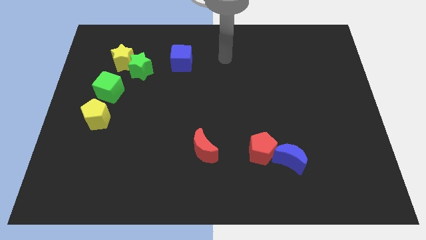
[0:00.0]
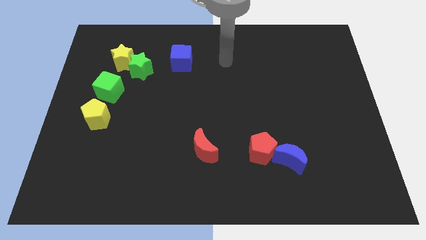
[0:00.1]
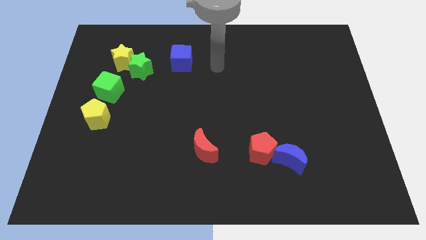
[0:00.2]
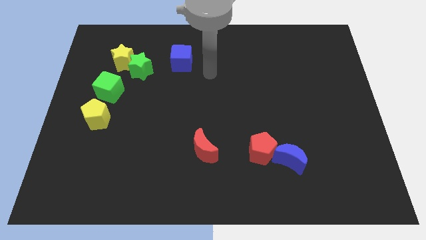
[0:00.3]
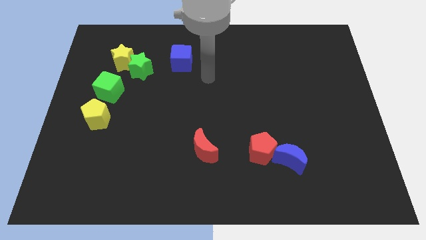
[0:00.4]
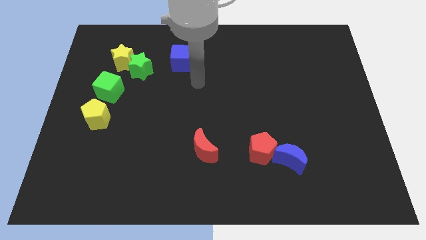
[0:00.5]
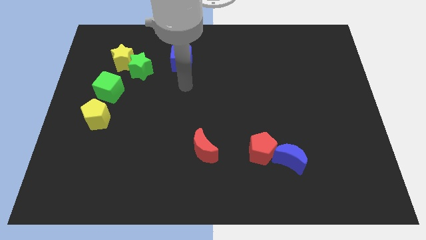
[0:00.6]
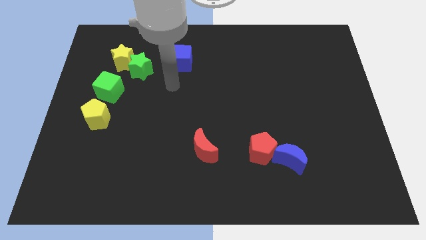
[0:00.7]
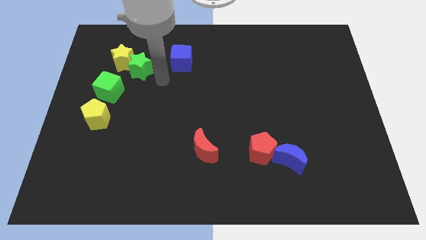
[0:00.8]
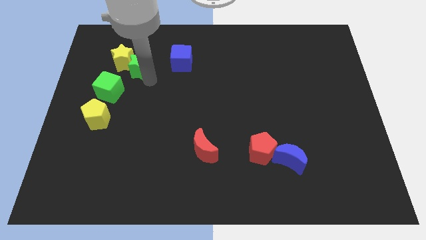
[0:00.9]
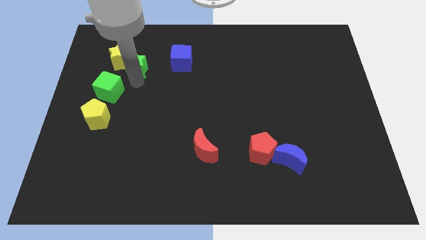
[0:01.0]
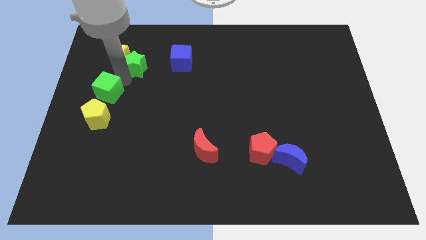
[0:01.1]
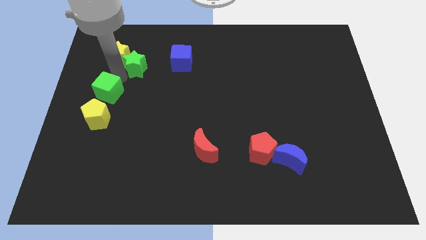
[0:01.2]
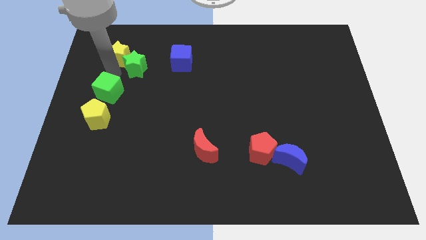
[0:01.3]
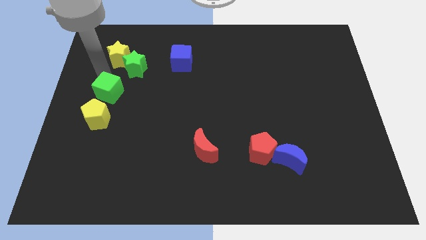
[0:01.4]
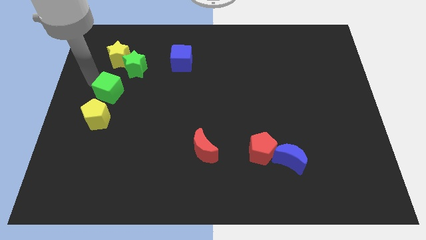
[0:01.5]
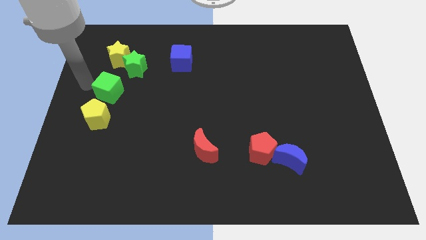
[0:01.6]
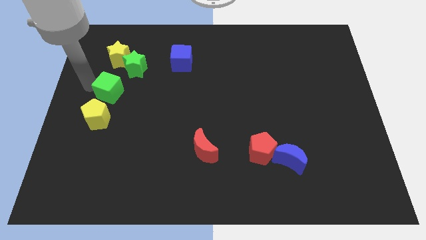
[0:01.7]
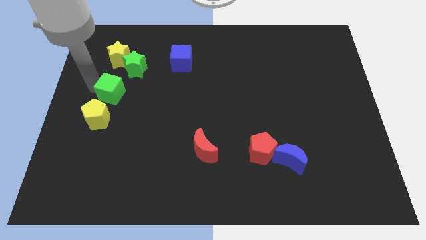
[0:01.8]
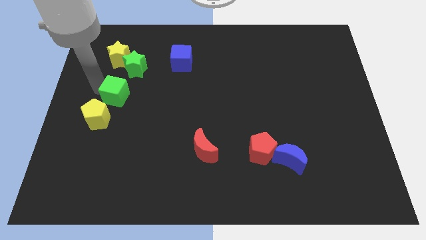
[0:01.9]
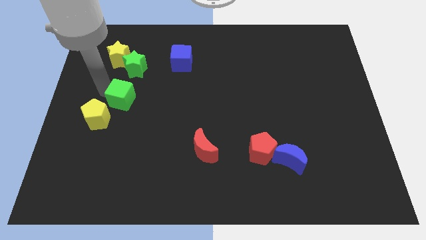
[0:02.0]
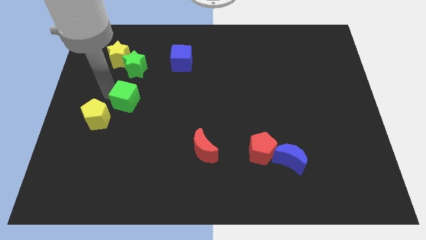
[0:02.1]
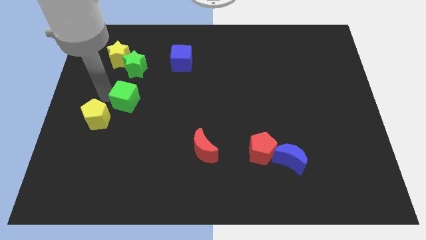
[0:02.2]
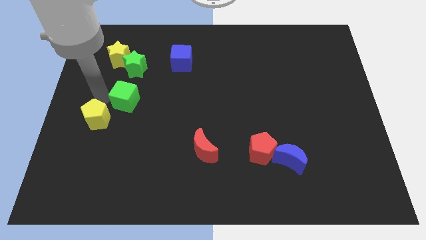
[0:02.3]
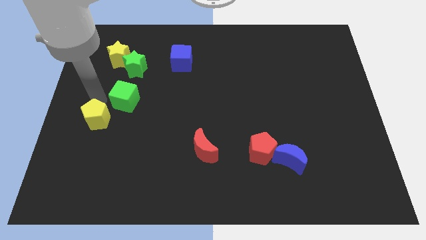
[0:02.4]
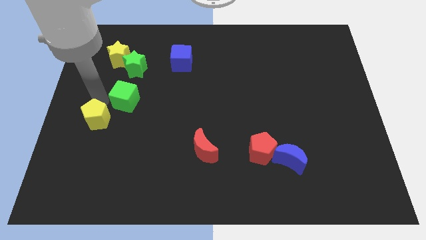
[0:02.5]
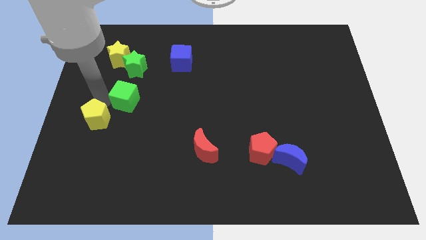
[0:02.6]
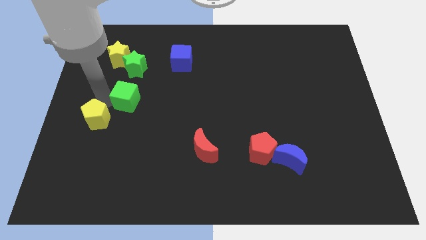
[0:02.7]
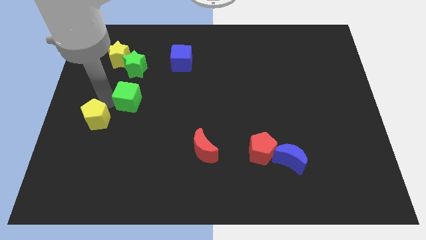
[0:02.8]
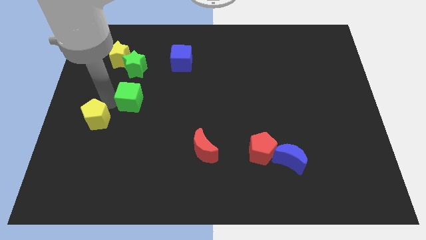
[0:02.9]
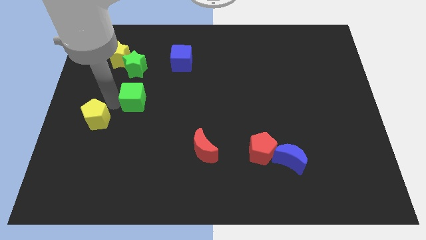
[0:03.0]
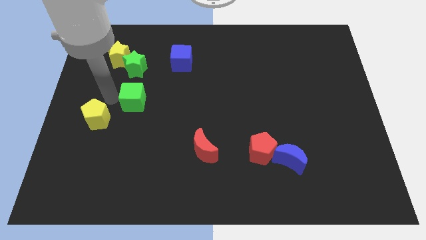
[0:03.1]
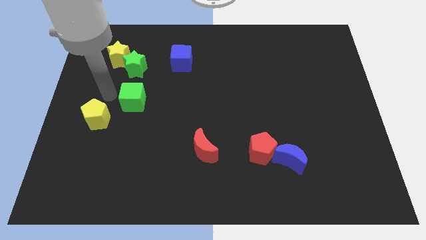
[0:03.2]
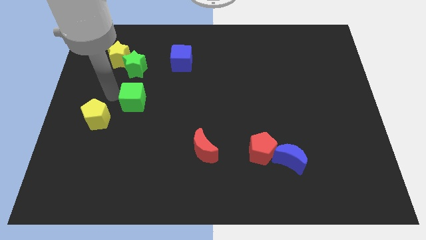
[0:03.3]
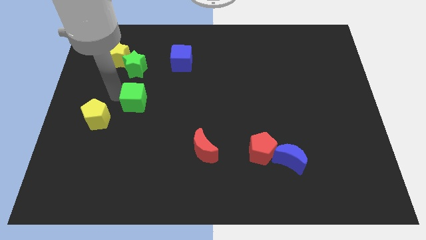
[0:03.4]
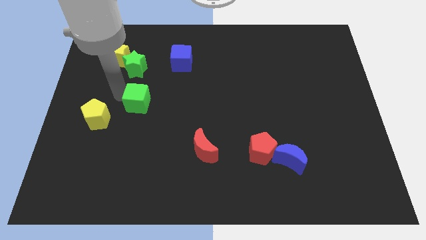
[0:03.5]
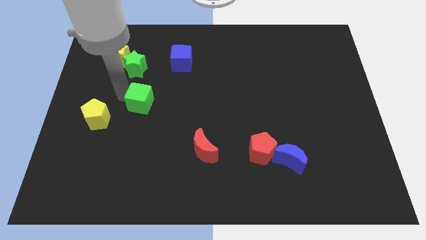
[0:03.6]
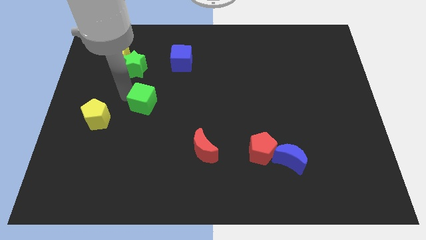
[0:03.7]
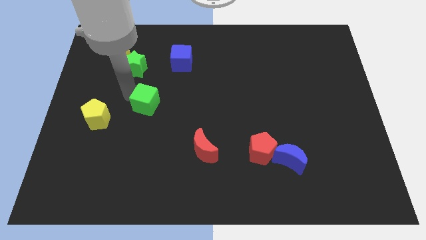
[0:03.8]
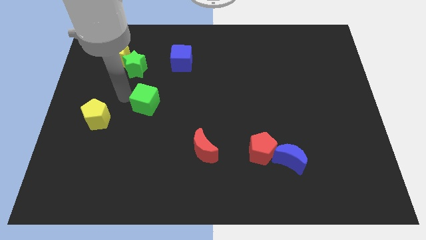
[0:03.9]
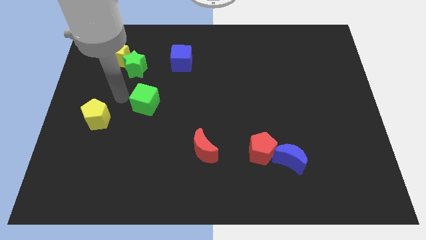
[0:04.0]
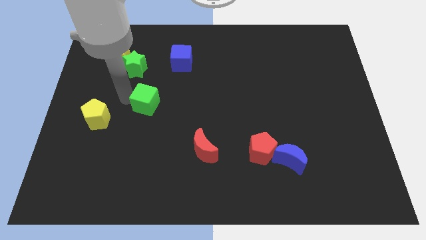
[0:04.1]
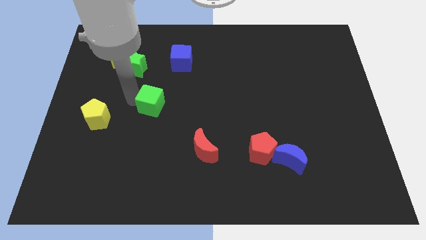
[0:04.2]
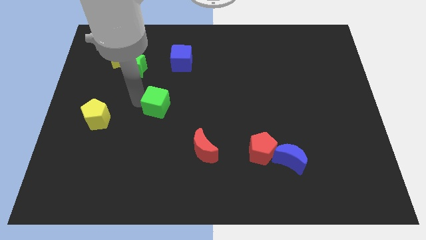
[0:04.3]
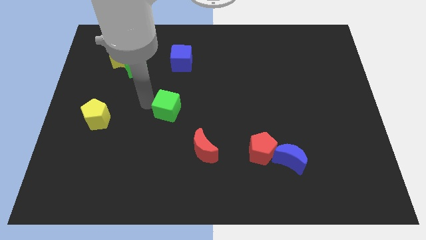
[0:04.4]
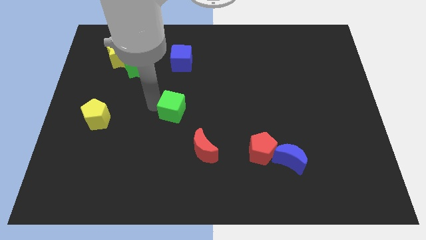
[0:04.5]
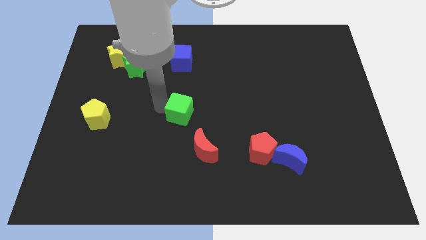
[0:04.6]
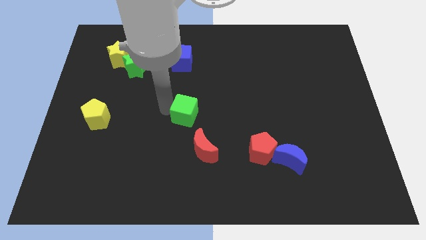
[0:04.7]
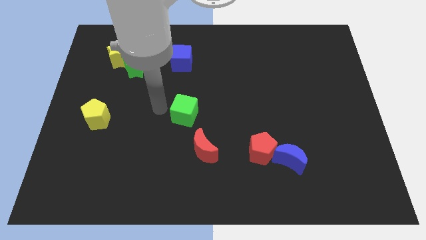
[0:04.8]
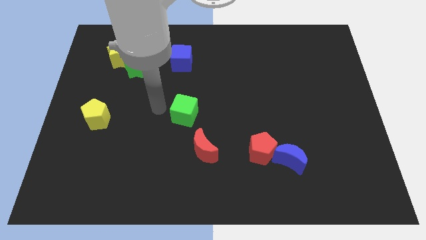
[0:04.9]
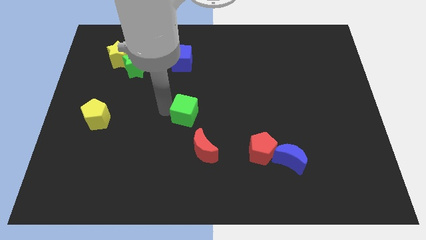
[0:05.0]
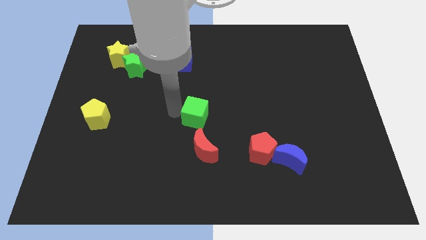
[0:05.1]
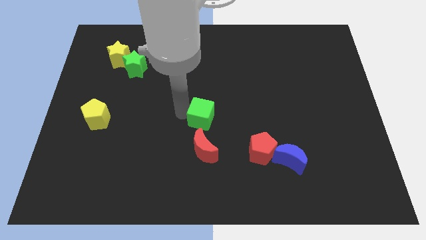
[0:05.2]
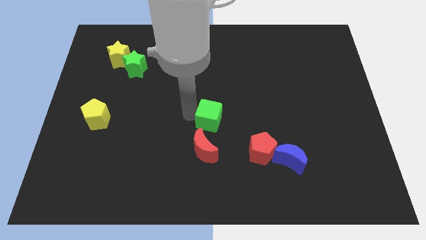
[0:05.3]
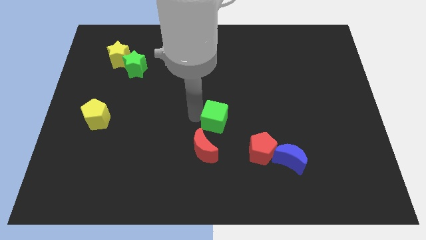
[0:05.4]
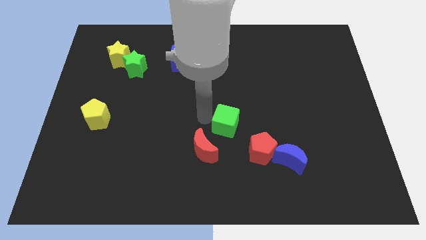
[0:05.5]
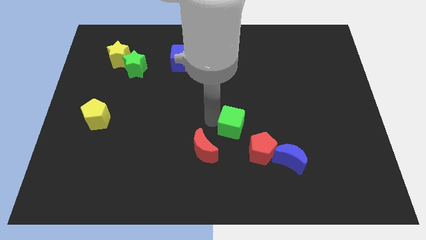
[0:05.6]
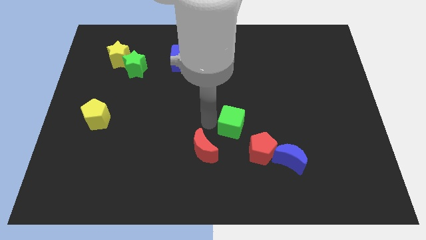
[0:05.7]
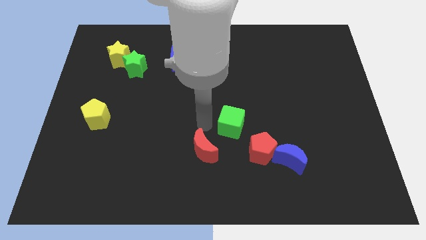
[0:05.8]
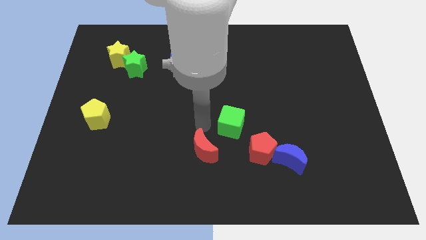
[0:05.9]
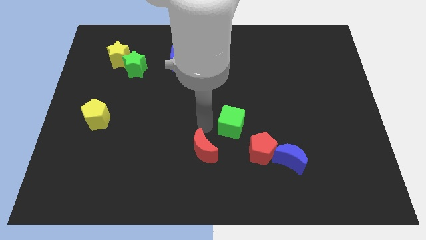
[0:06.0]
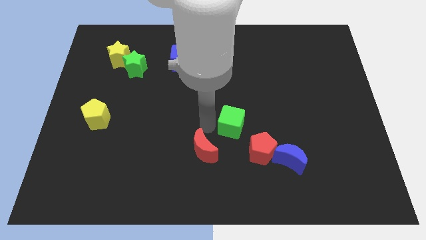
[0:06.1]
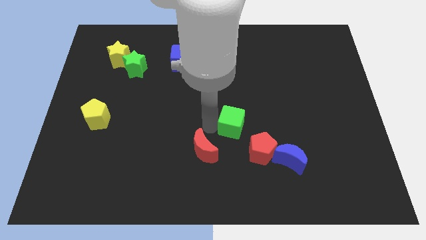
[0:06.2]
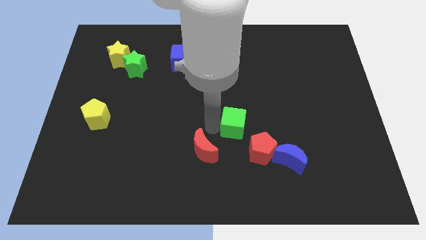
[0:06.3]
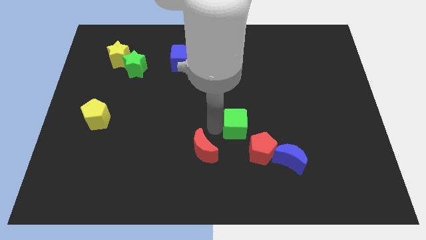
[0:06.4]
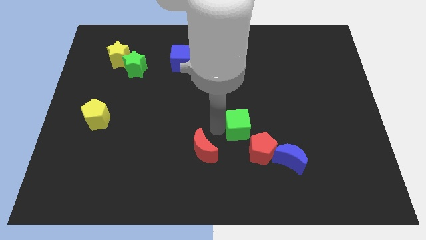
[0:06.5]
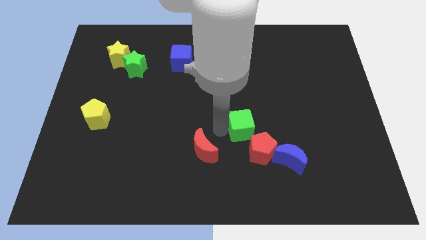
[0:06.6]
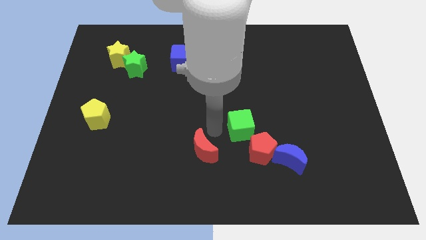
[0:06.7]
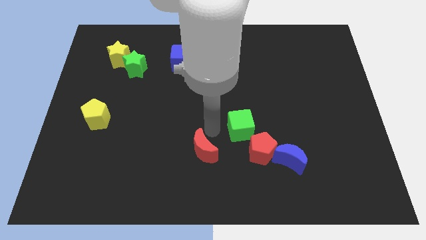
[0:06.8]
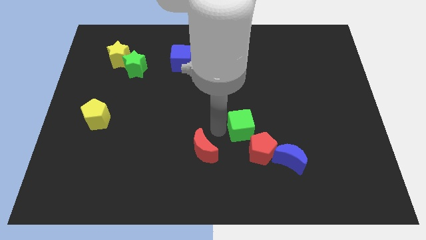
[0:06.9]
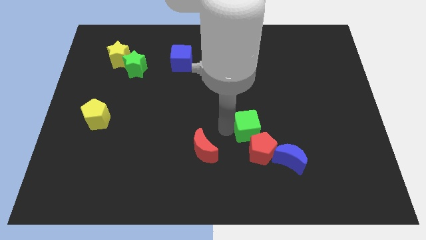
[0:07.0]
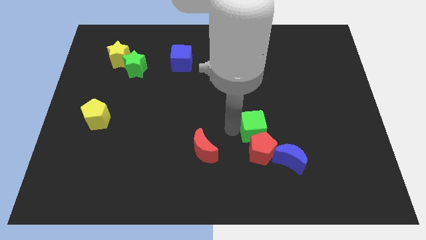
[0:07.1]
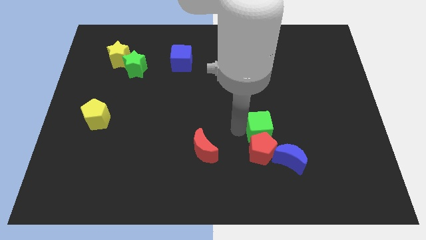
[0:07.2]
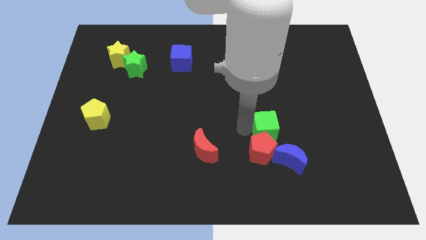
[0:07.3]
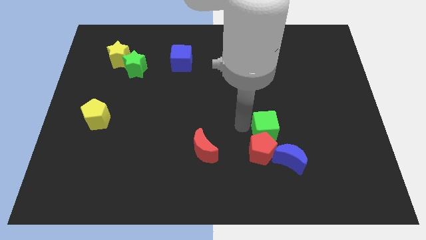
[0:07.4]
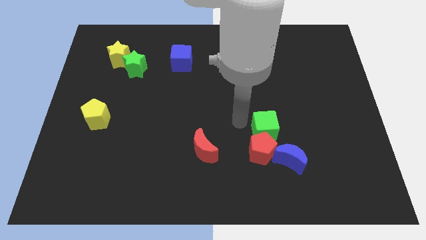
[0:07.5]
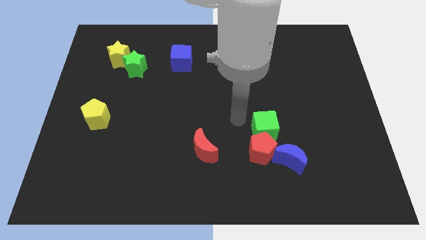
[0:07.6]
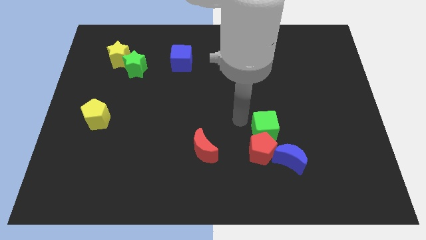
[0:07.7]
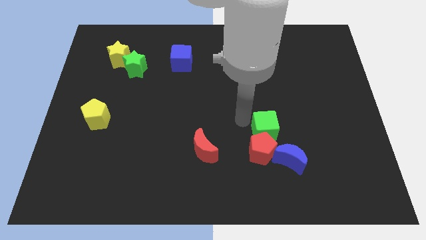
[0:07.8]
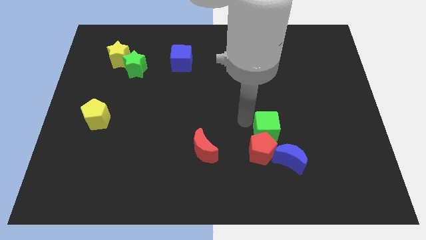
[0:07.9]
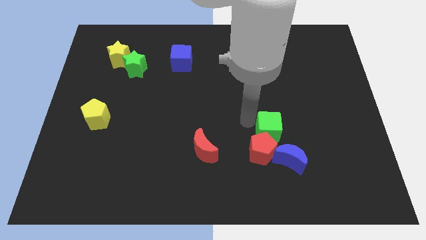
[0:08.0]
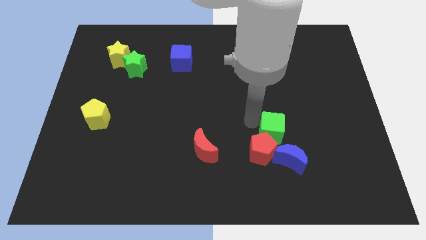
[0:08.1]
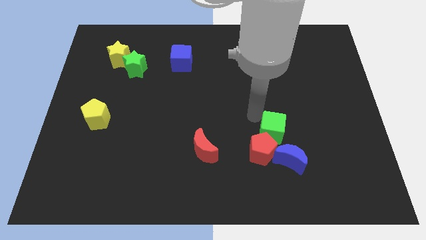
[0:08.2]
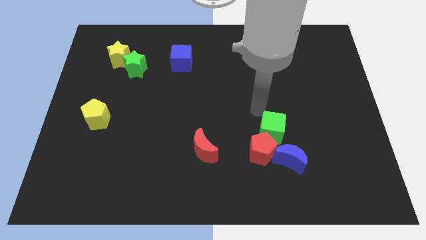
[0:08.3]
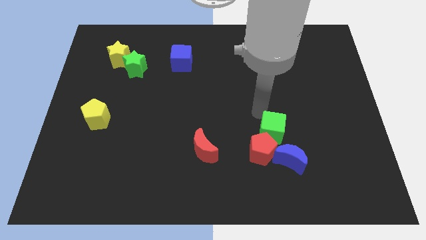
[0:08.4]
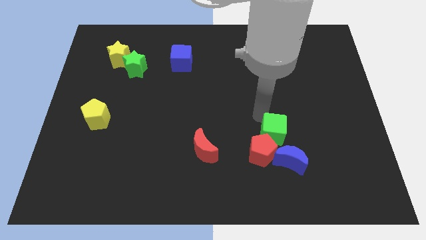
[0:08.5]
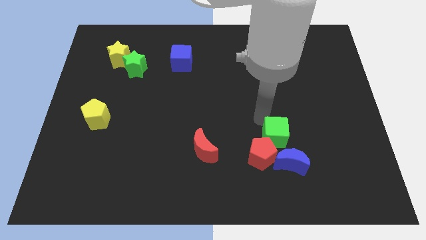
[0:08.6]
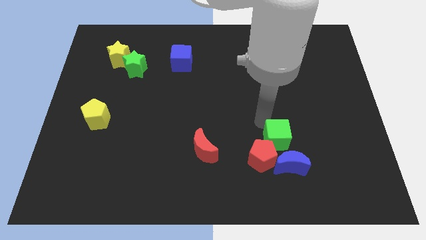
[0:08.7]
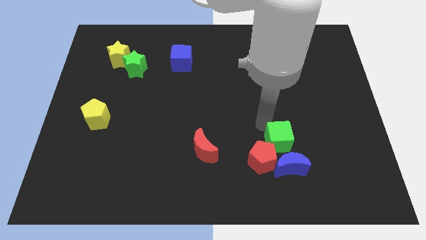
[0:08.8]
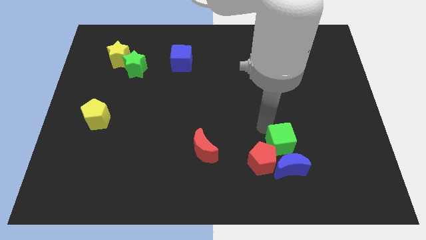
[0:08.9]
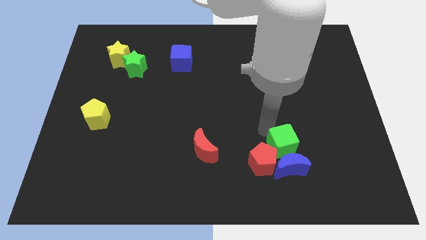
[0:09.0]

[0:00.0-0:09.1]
push the green cube to the blue moon
